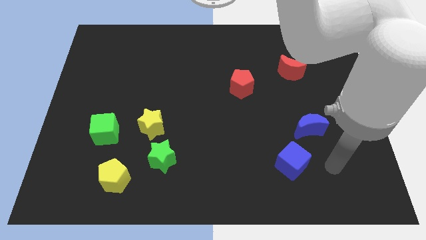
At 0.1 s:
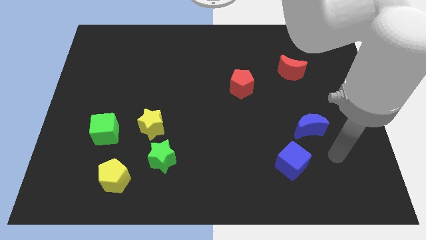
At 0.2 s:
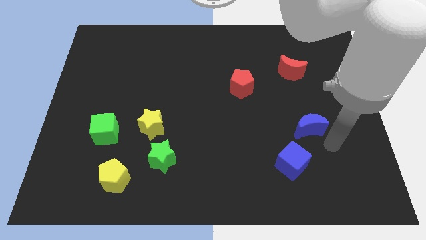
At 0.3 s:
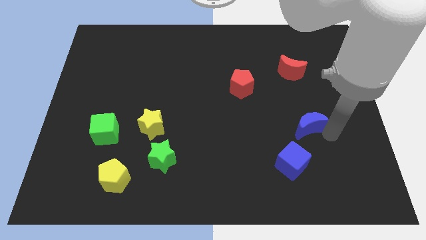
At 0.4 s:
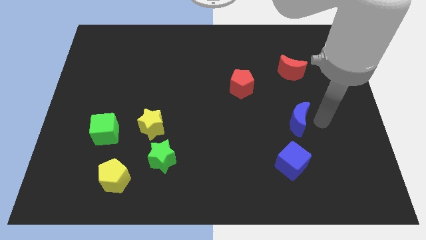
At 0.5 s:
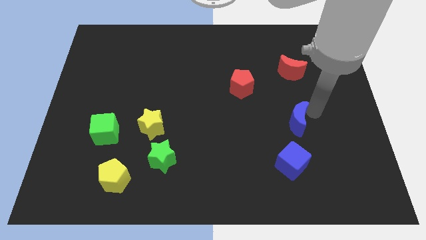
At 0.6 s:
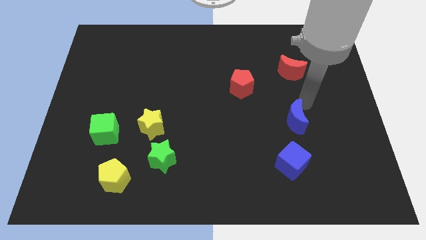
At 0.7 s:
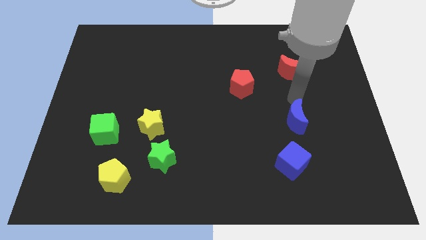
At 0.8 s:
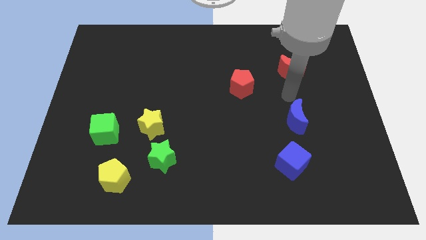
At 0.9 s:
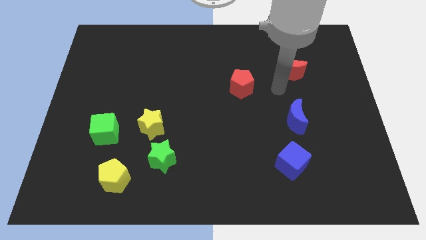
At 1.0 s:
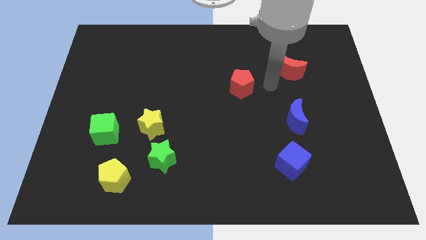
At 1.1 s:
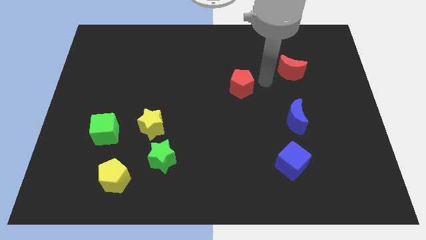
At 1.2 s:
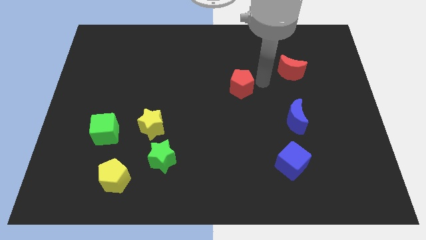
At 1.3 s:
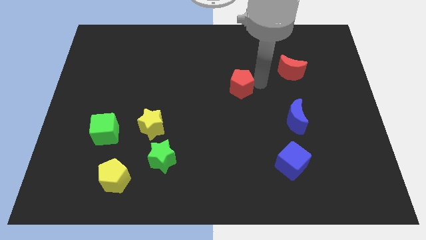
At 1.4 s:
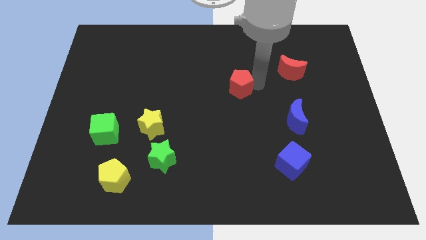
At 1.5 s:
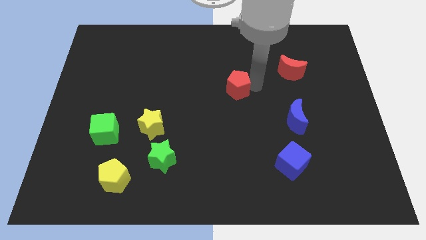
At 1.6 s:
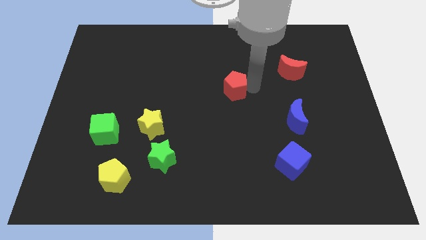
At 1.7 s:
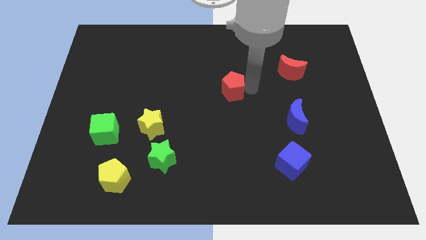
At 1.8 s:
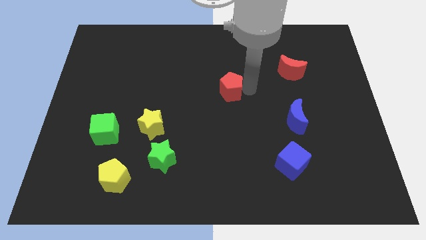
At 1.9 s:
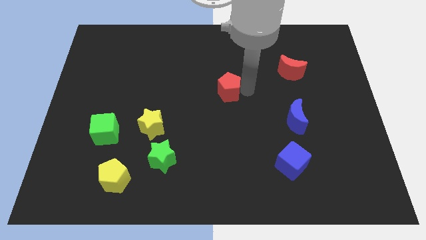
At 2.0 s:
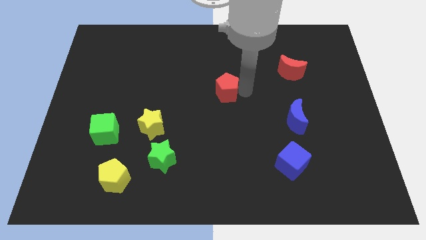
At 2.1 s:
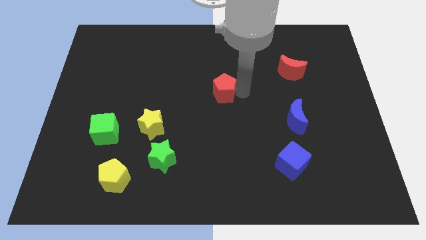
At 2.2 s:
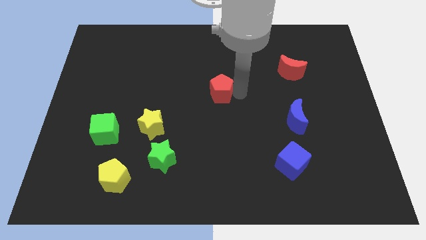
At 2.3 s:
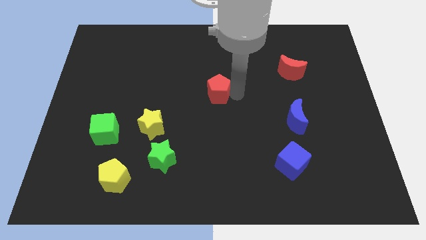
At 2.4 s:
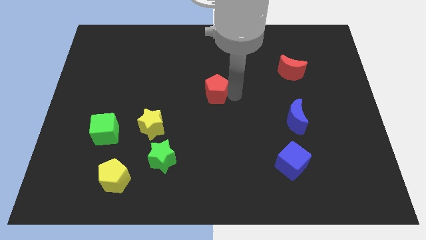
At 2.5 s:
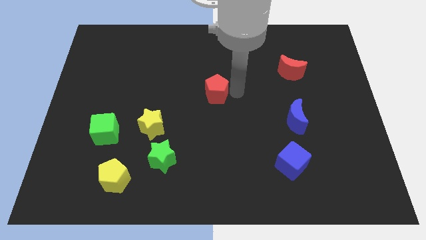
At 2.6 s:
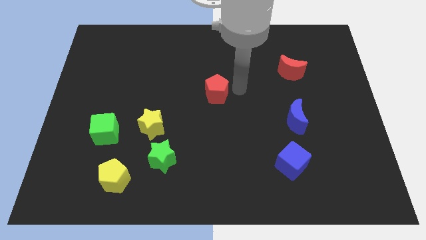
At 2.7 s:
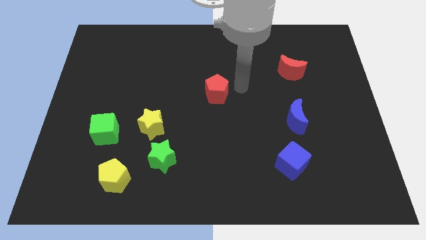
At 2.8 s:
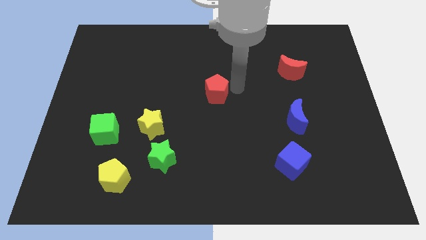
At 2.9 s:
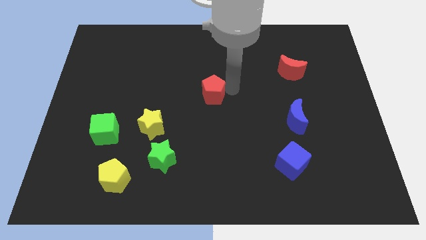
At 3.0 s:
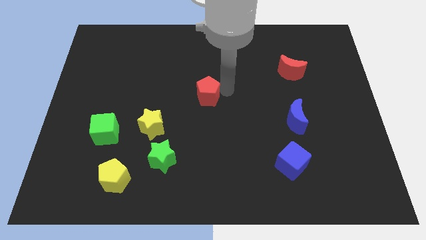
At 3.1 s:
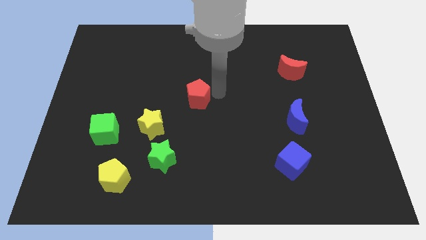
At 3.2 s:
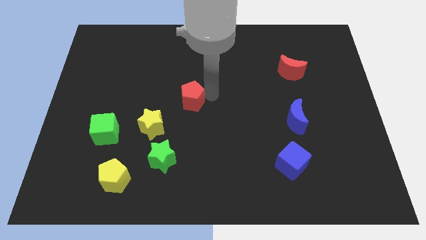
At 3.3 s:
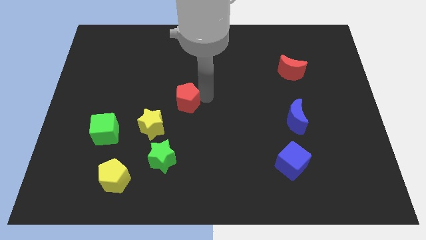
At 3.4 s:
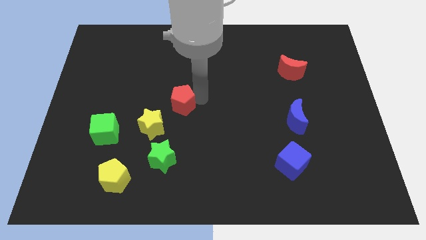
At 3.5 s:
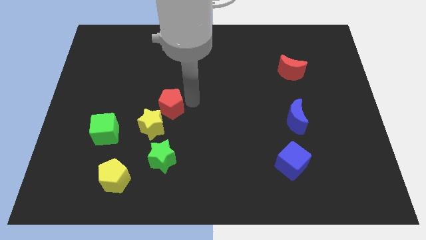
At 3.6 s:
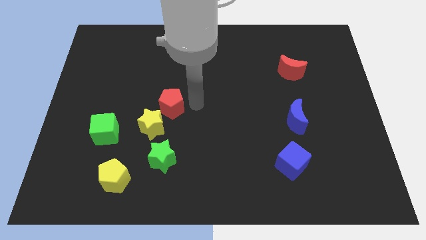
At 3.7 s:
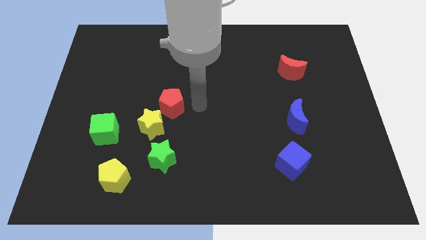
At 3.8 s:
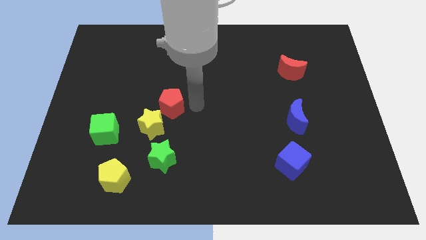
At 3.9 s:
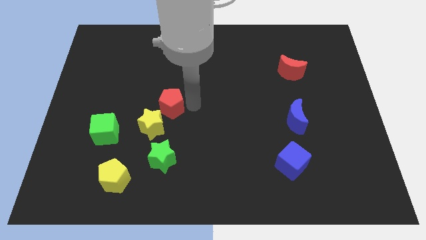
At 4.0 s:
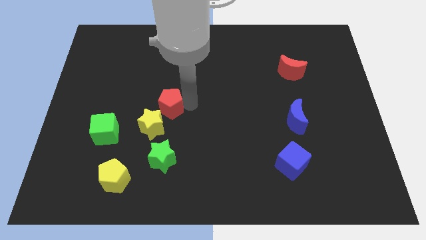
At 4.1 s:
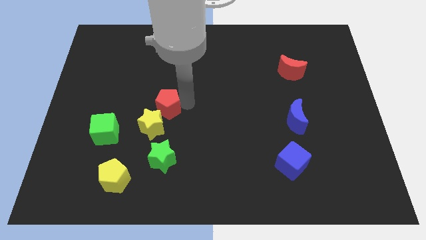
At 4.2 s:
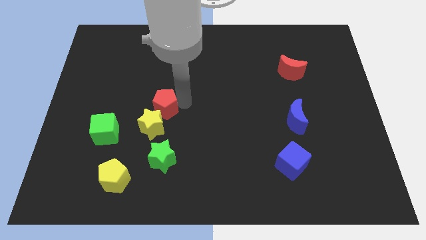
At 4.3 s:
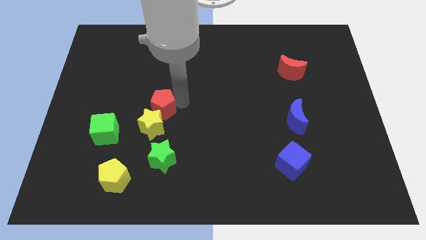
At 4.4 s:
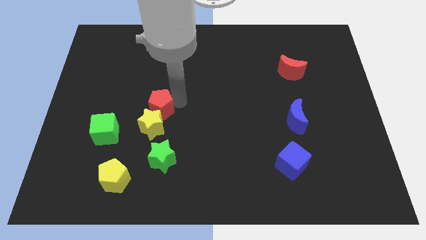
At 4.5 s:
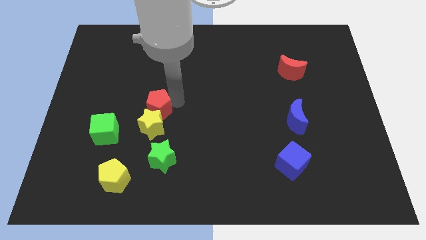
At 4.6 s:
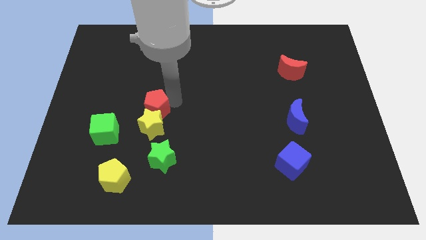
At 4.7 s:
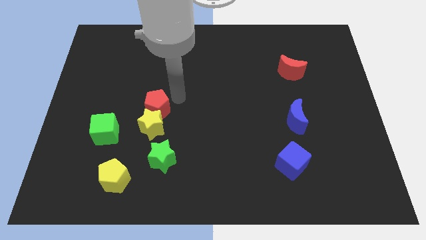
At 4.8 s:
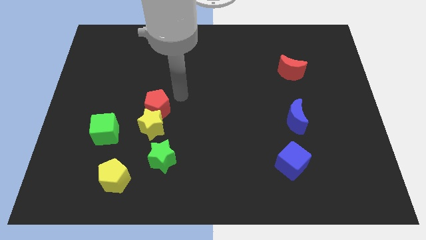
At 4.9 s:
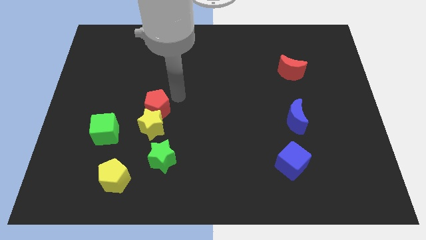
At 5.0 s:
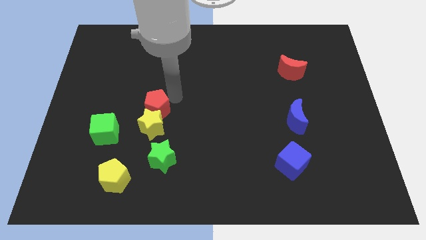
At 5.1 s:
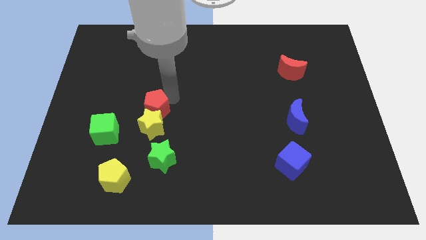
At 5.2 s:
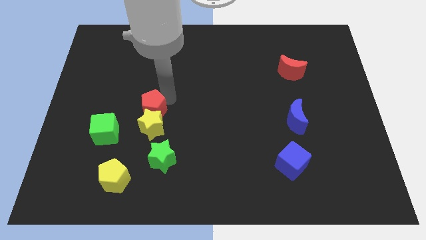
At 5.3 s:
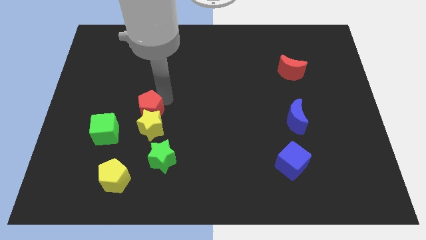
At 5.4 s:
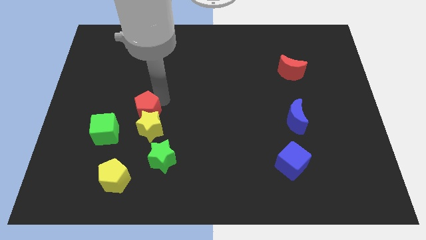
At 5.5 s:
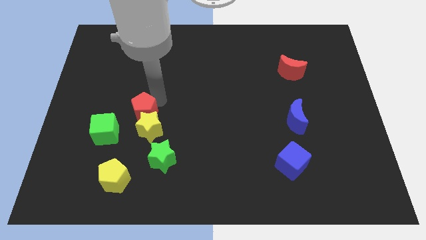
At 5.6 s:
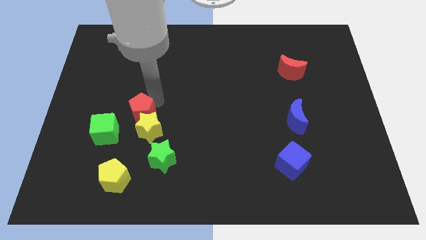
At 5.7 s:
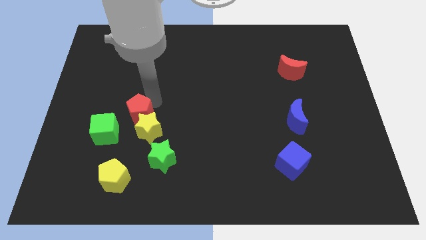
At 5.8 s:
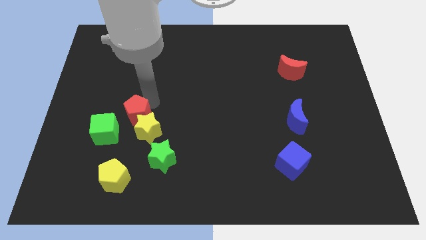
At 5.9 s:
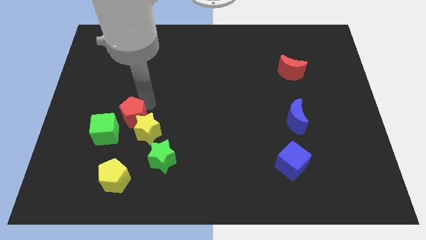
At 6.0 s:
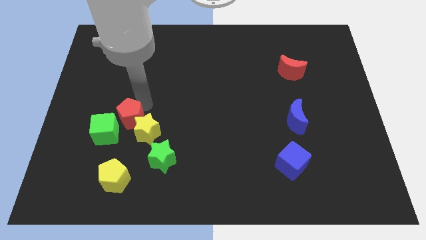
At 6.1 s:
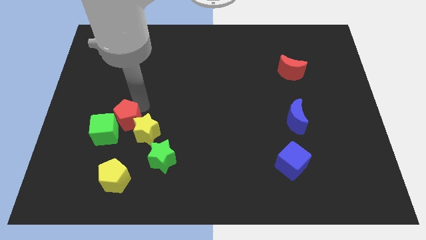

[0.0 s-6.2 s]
push the red pentagon towards the green cube
